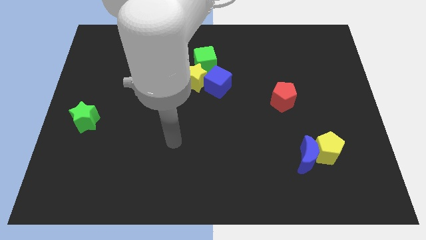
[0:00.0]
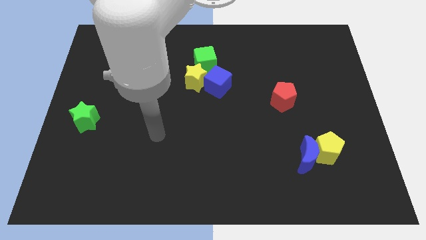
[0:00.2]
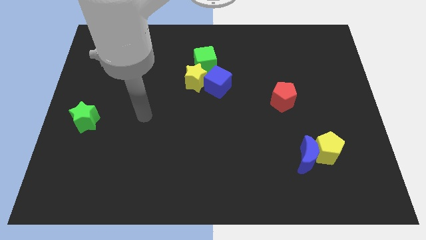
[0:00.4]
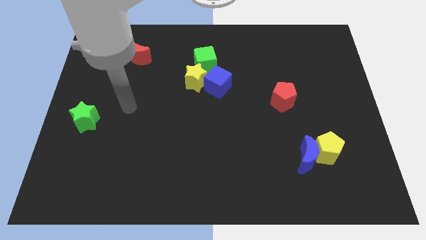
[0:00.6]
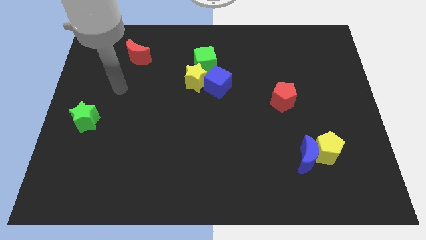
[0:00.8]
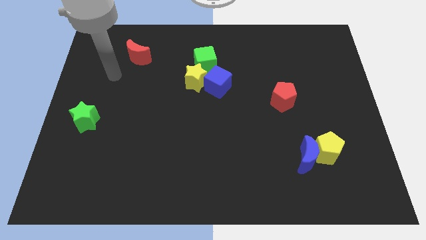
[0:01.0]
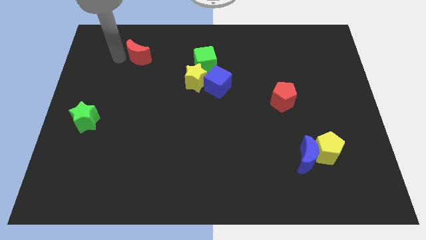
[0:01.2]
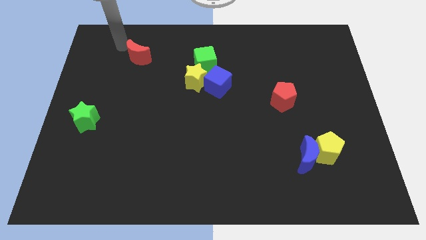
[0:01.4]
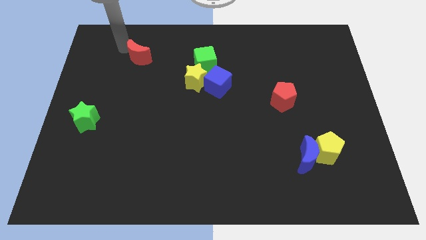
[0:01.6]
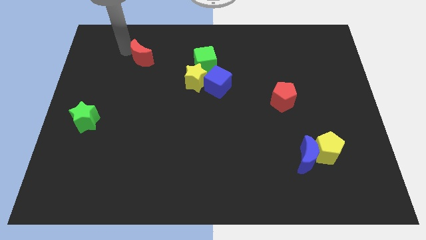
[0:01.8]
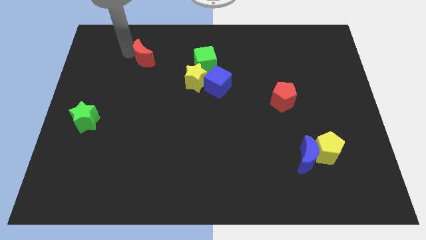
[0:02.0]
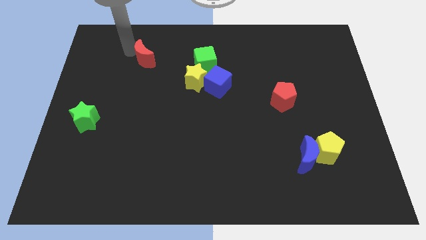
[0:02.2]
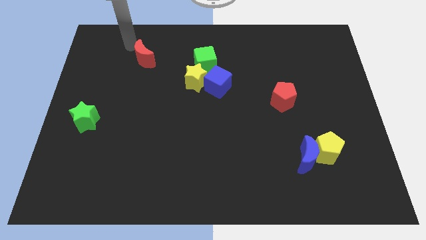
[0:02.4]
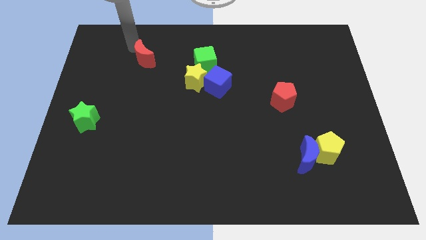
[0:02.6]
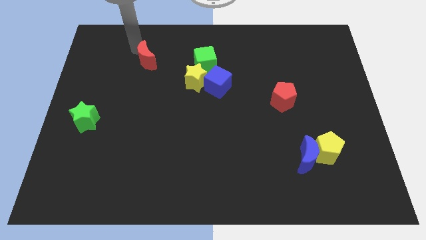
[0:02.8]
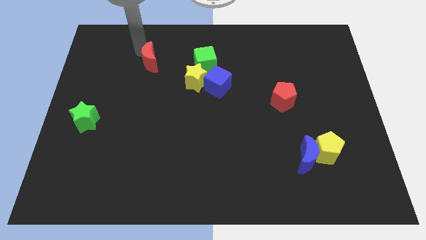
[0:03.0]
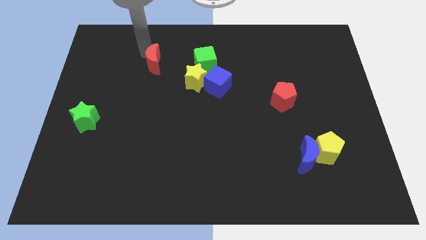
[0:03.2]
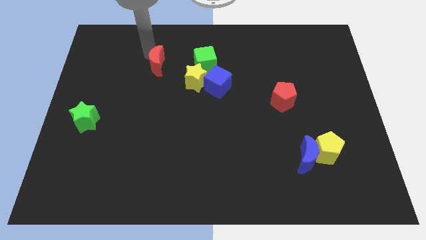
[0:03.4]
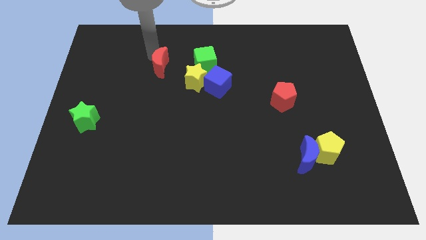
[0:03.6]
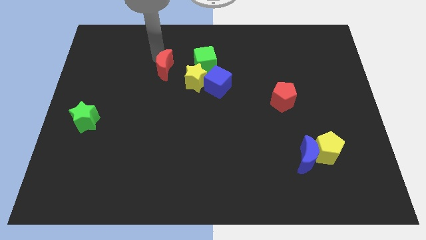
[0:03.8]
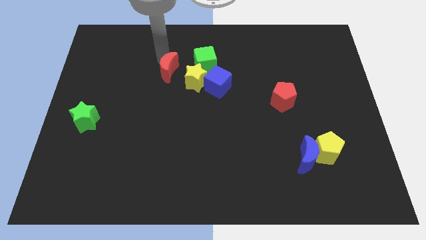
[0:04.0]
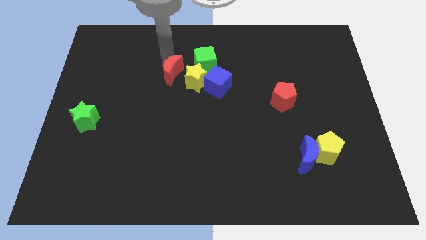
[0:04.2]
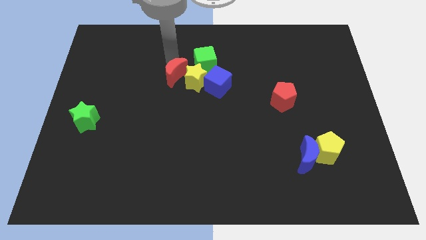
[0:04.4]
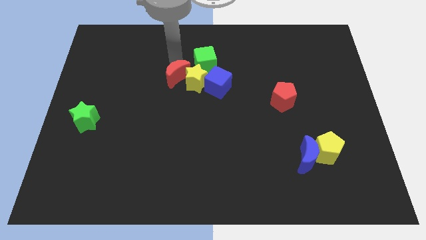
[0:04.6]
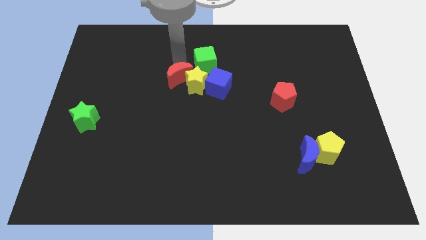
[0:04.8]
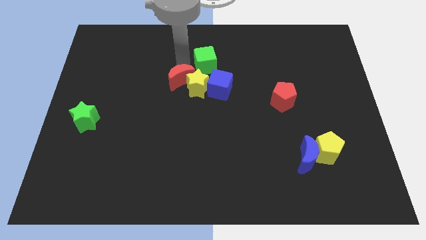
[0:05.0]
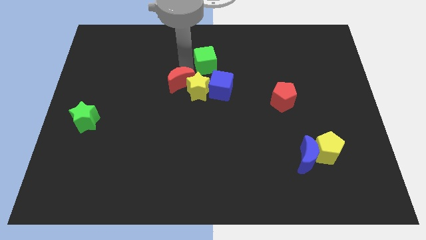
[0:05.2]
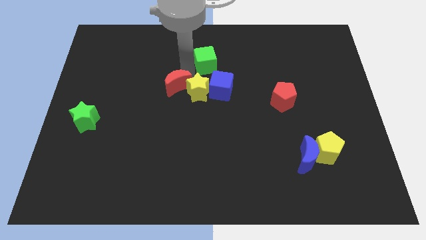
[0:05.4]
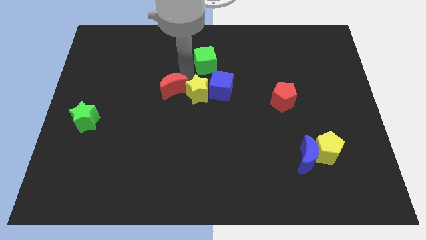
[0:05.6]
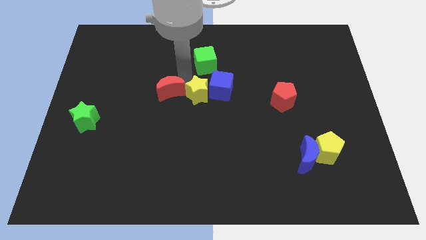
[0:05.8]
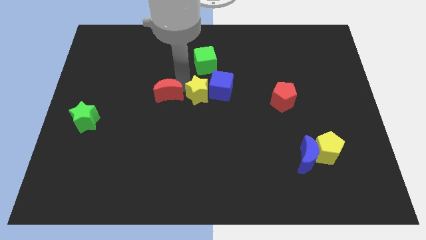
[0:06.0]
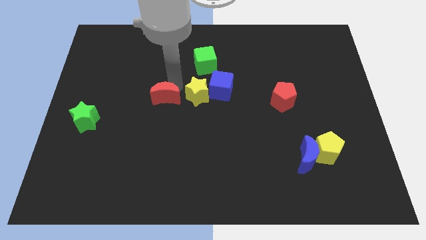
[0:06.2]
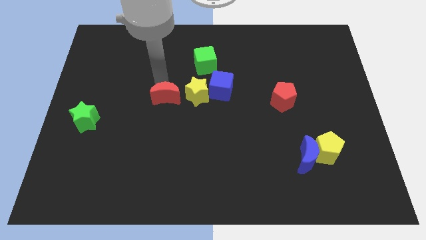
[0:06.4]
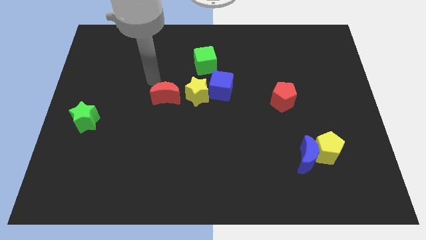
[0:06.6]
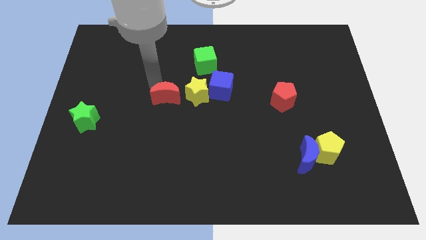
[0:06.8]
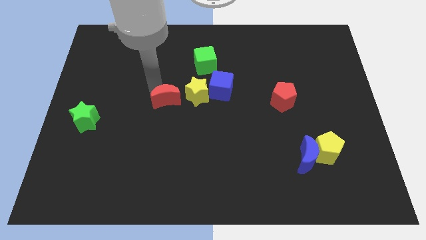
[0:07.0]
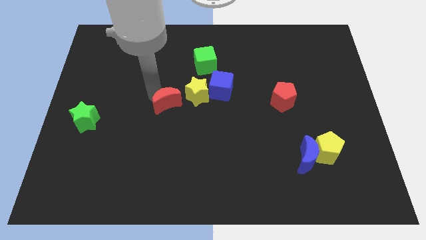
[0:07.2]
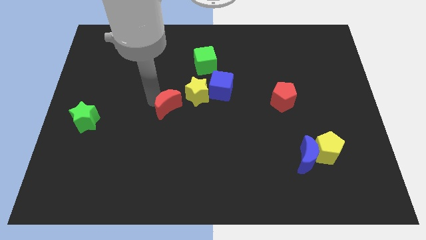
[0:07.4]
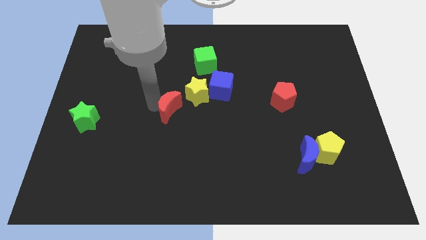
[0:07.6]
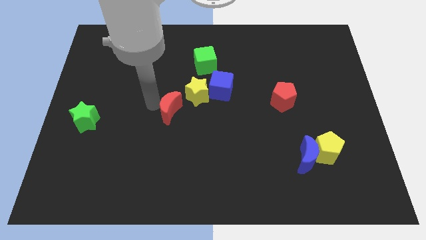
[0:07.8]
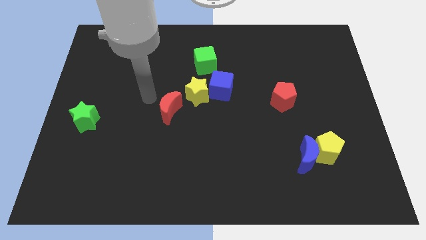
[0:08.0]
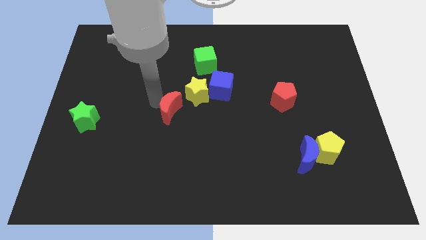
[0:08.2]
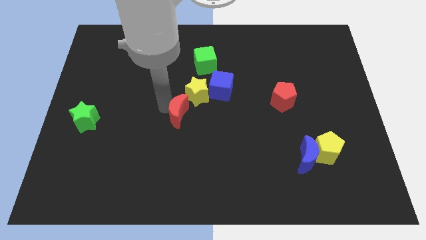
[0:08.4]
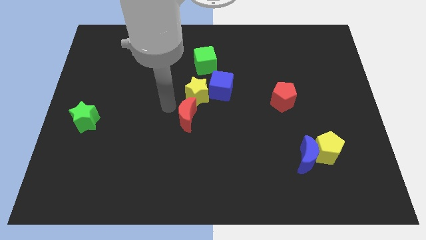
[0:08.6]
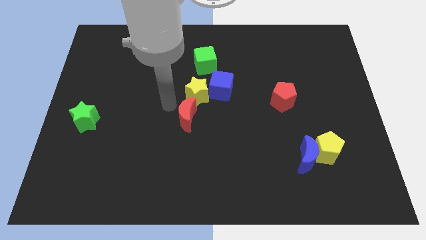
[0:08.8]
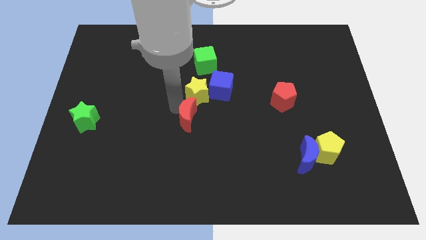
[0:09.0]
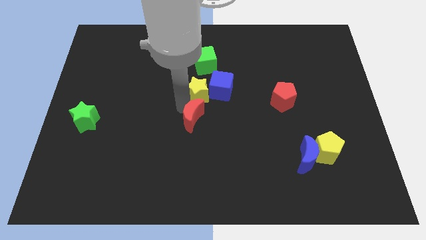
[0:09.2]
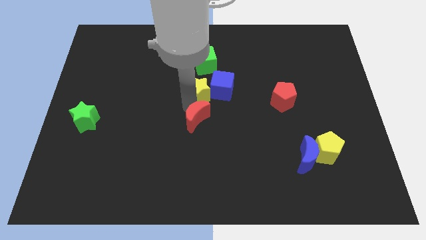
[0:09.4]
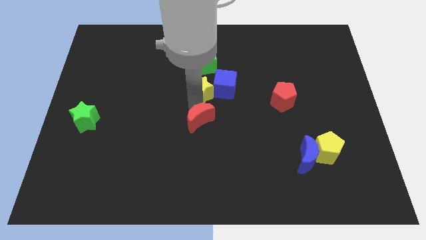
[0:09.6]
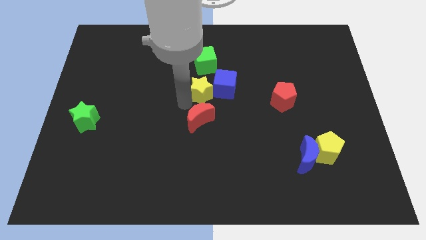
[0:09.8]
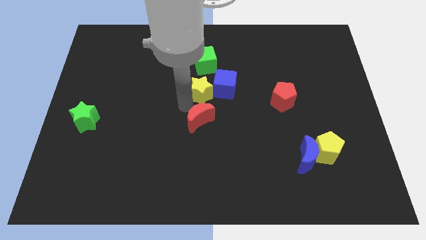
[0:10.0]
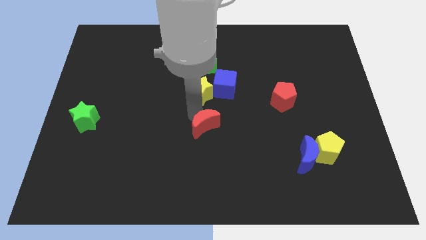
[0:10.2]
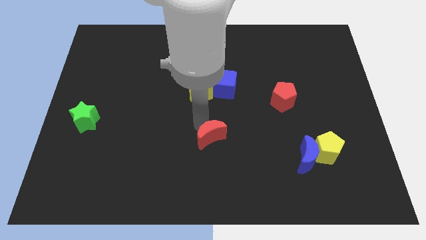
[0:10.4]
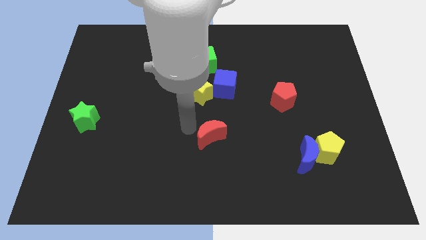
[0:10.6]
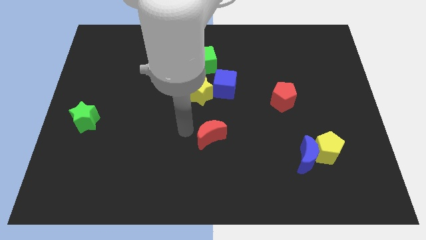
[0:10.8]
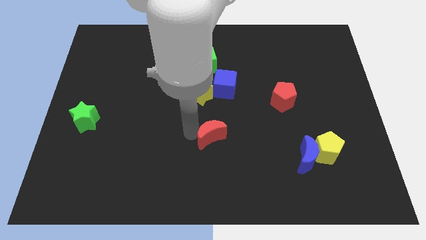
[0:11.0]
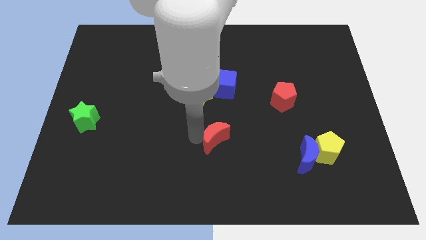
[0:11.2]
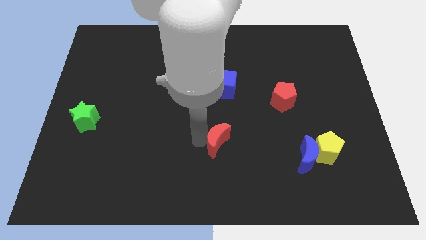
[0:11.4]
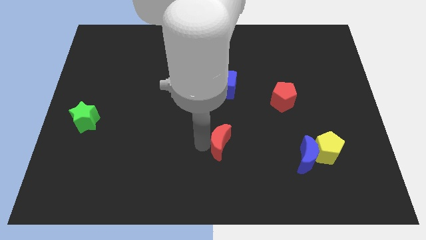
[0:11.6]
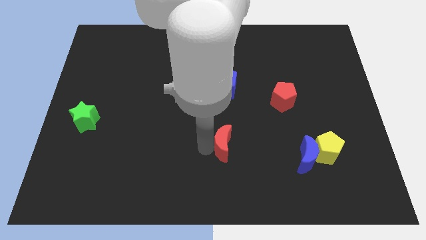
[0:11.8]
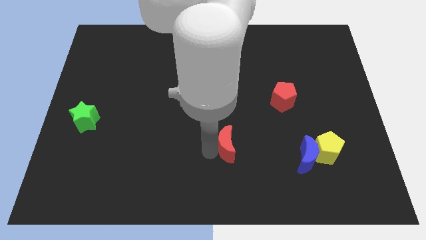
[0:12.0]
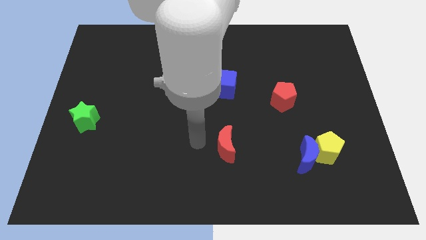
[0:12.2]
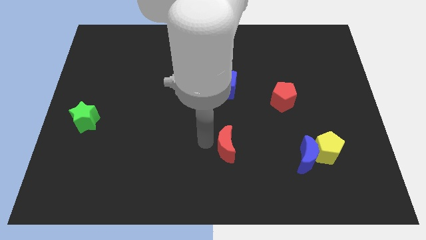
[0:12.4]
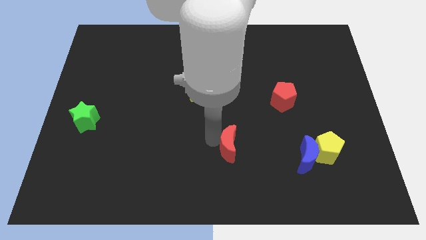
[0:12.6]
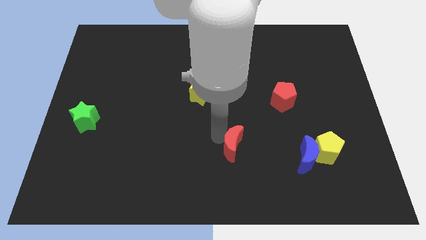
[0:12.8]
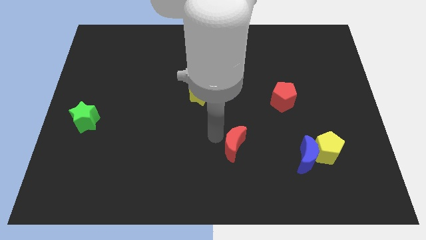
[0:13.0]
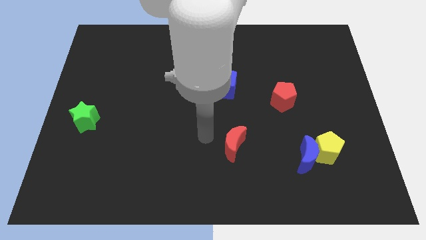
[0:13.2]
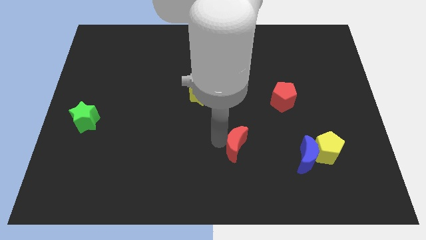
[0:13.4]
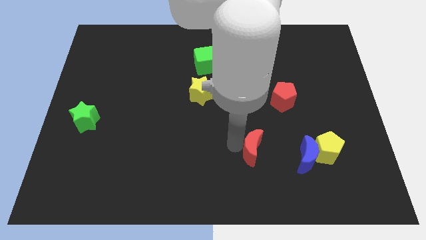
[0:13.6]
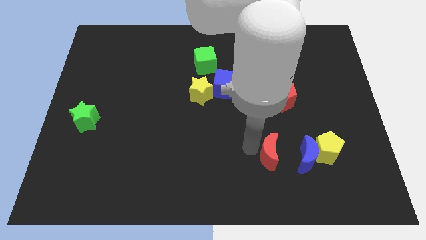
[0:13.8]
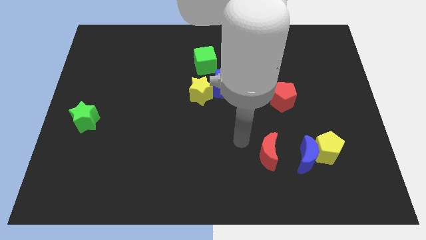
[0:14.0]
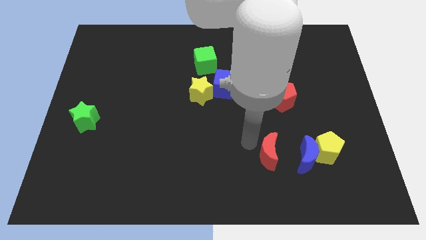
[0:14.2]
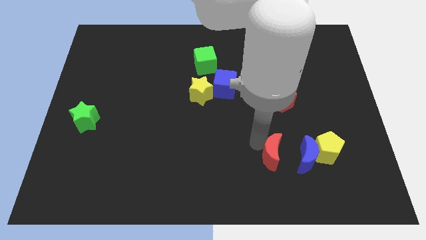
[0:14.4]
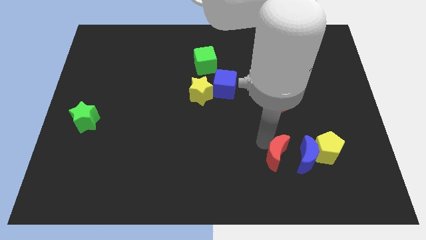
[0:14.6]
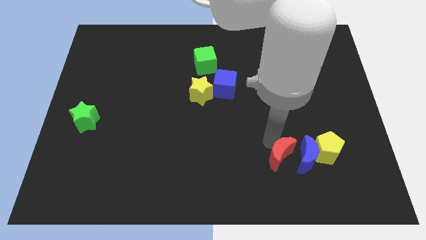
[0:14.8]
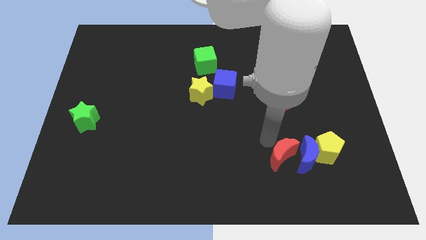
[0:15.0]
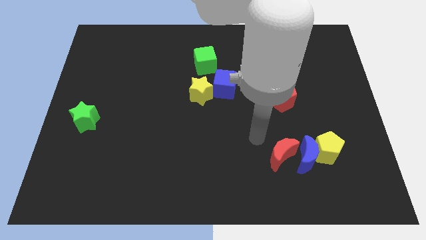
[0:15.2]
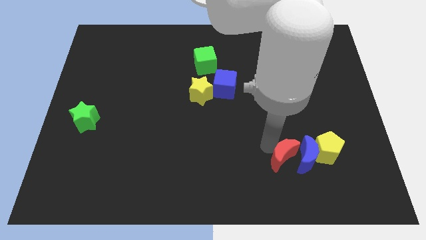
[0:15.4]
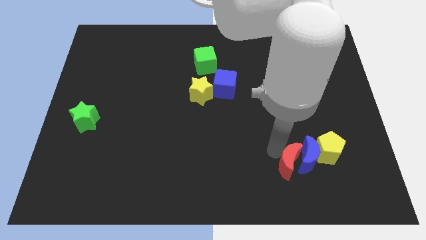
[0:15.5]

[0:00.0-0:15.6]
push the red moon to the bottom left of the yellow pentagon

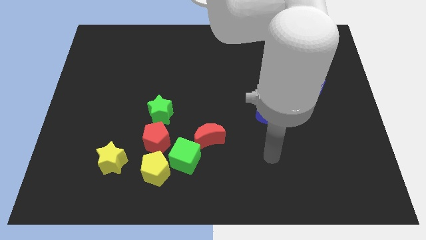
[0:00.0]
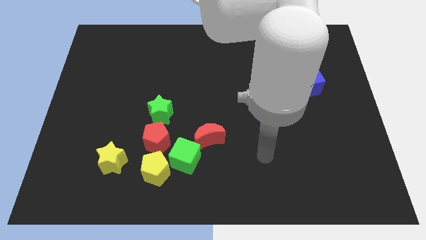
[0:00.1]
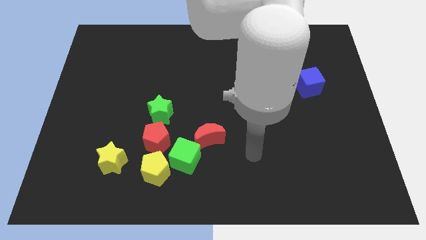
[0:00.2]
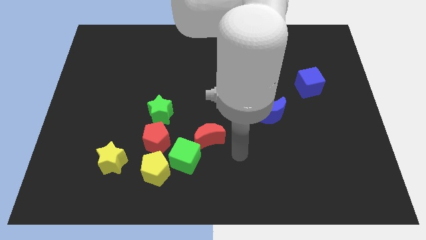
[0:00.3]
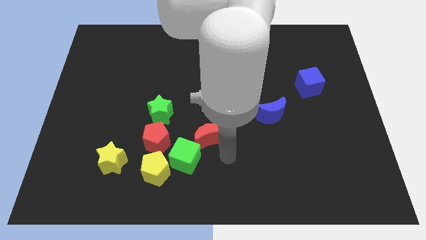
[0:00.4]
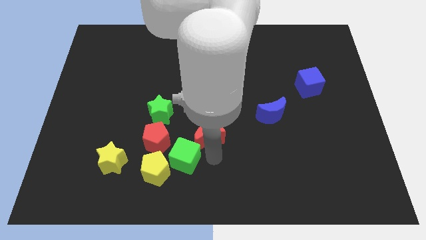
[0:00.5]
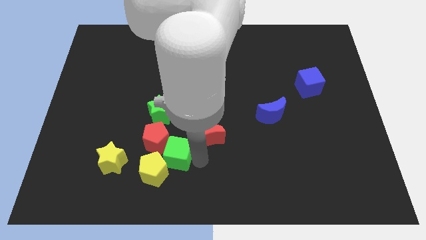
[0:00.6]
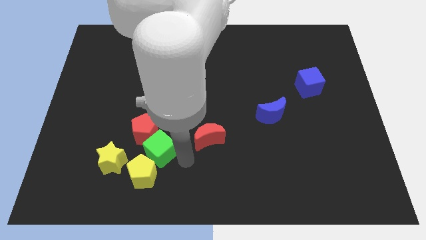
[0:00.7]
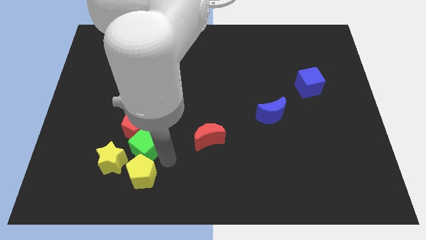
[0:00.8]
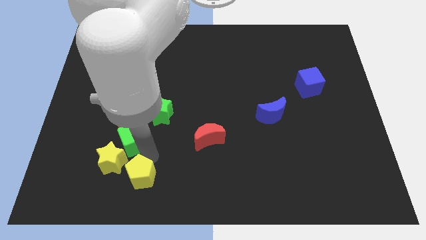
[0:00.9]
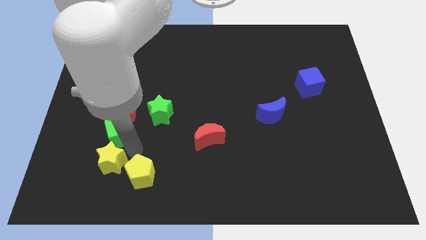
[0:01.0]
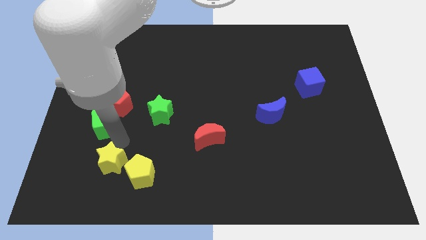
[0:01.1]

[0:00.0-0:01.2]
push the red pentagon to the top left of the green star
